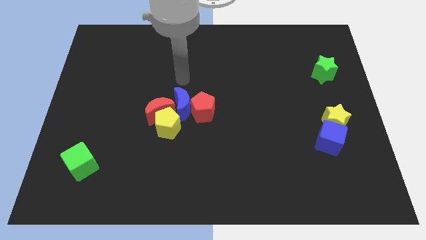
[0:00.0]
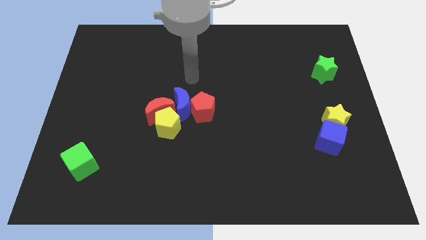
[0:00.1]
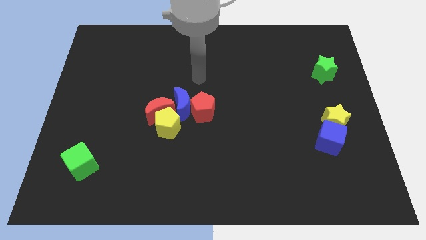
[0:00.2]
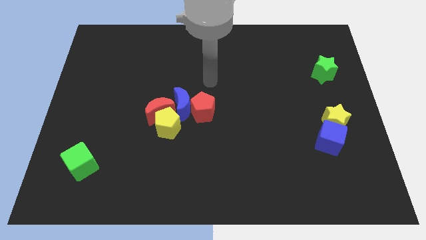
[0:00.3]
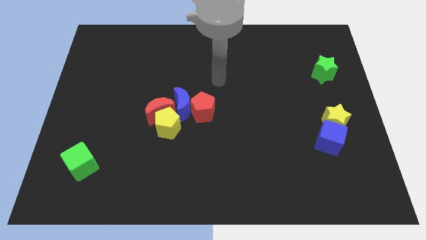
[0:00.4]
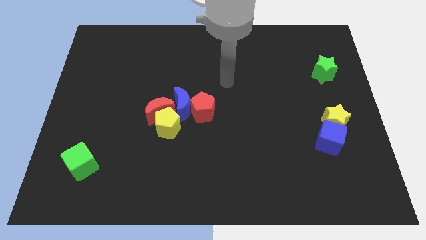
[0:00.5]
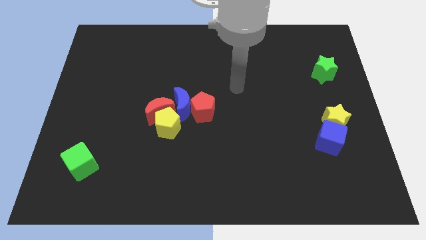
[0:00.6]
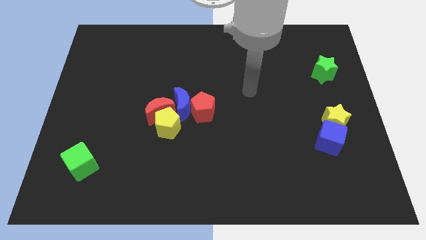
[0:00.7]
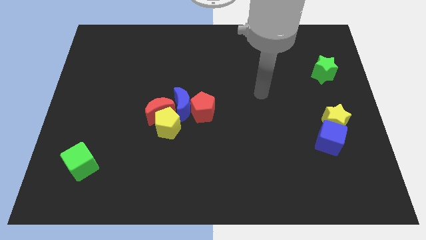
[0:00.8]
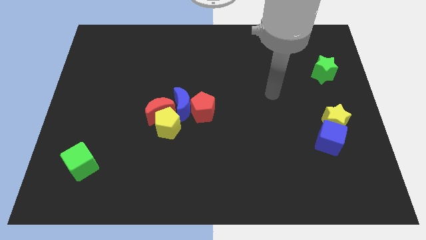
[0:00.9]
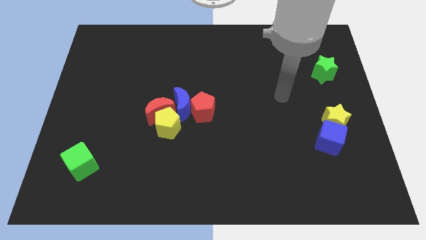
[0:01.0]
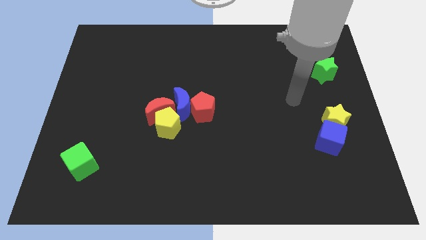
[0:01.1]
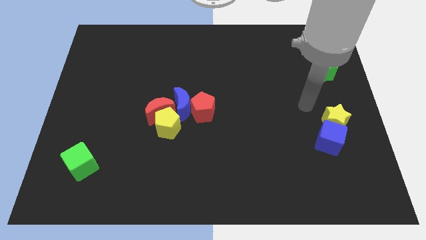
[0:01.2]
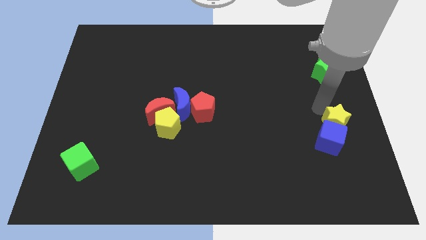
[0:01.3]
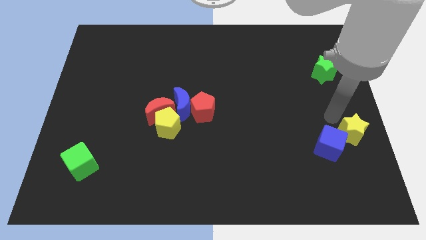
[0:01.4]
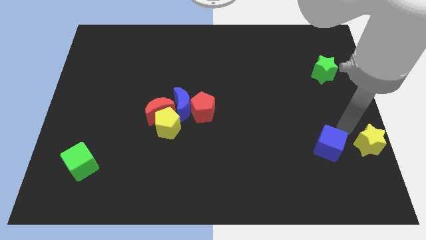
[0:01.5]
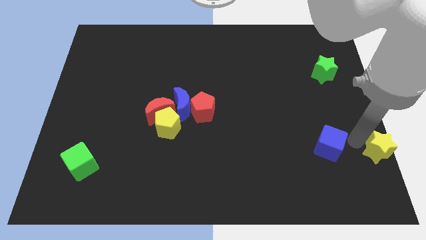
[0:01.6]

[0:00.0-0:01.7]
pull the blue cube apart from the yellow star

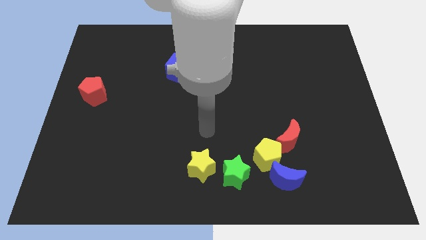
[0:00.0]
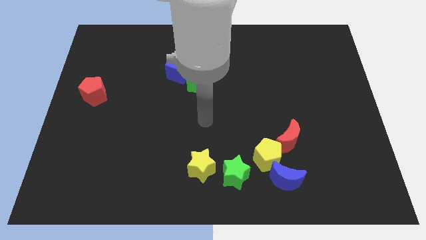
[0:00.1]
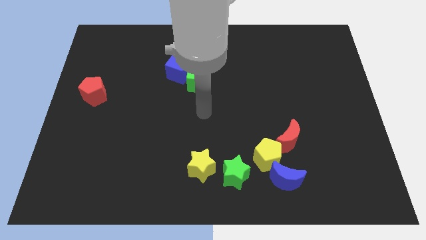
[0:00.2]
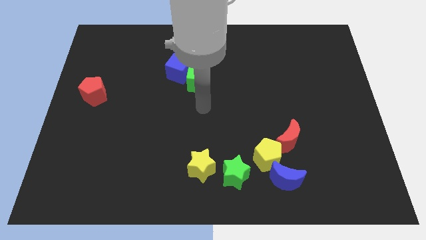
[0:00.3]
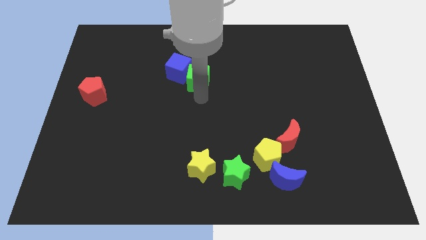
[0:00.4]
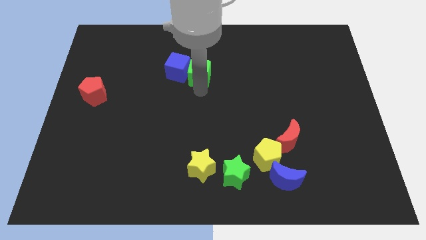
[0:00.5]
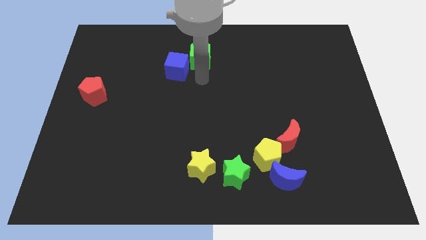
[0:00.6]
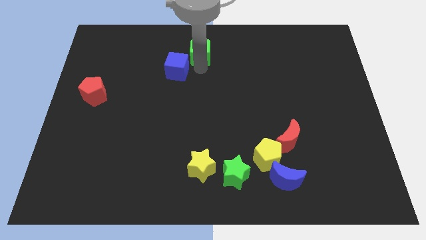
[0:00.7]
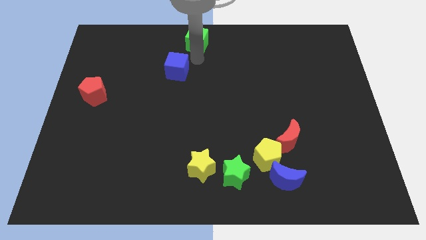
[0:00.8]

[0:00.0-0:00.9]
separate the blue cube from the green cube

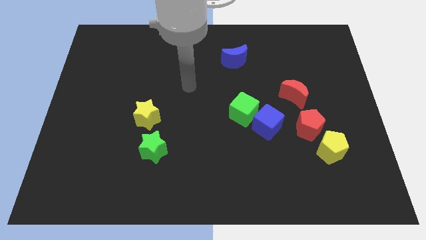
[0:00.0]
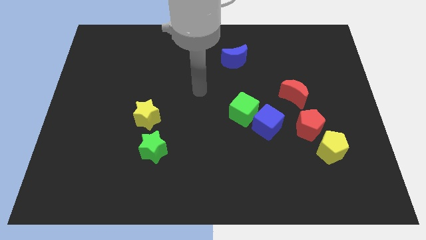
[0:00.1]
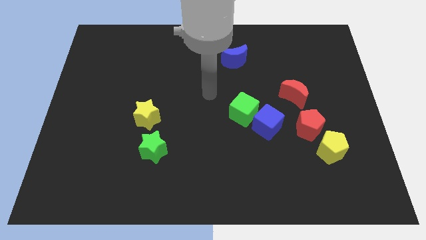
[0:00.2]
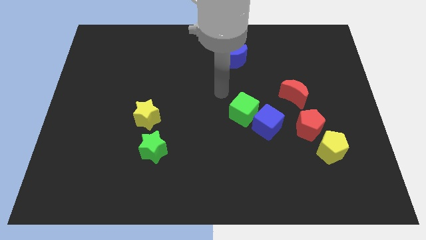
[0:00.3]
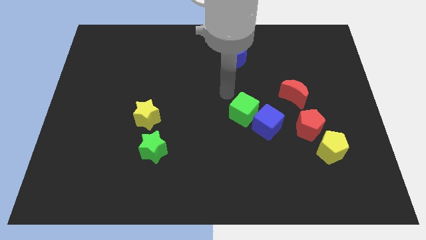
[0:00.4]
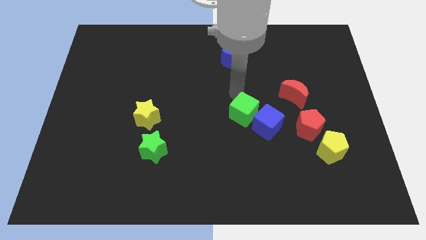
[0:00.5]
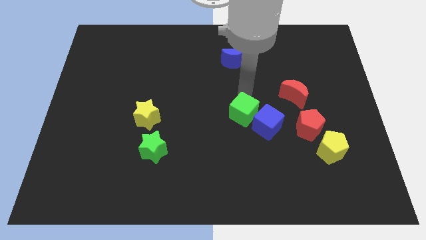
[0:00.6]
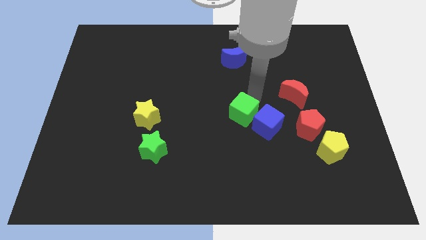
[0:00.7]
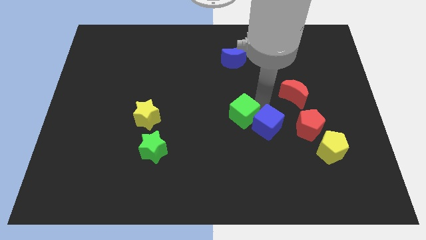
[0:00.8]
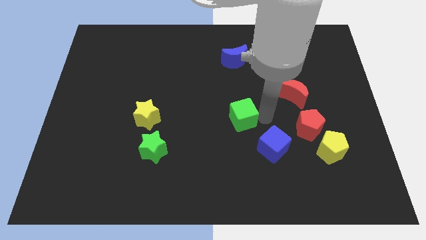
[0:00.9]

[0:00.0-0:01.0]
pull the green cube apart from the blue cube

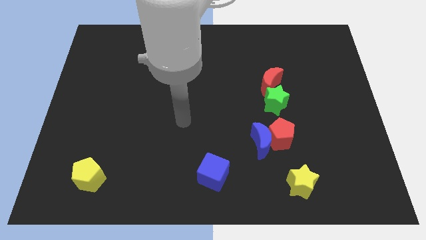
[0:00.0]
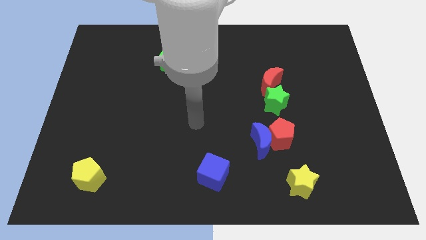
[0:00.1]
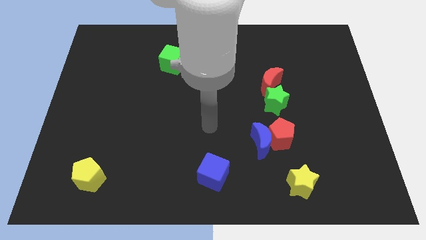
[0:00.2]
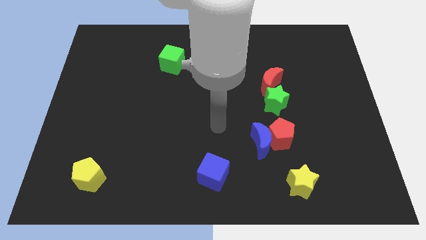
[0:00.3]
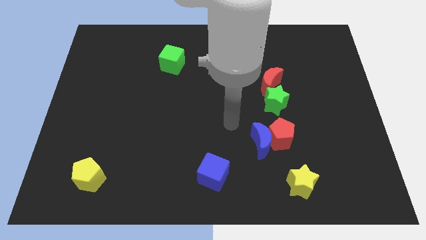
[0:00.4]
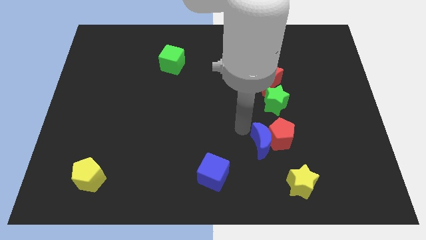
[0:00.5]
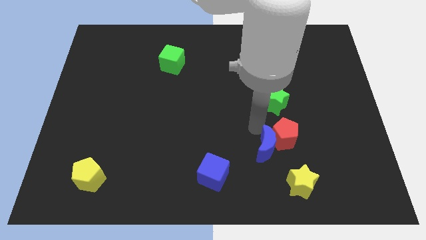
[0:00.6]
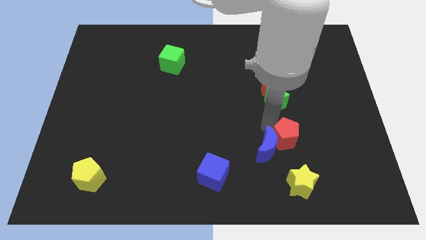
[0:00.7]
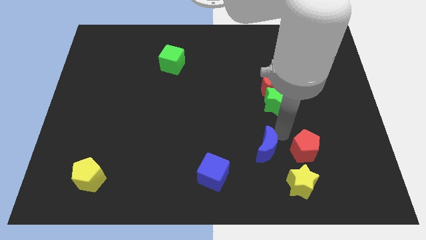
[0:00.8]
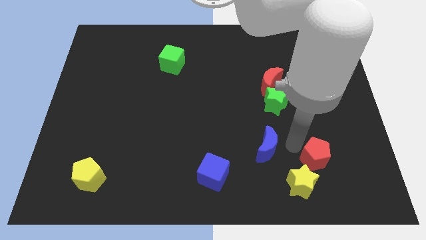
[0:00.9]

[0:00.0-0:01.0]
pull the blue moon apart from the red pentagon

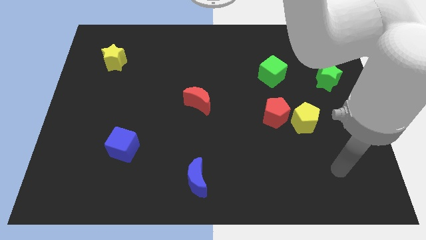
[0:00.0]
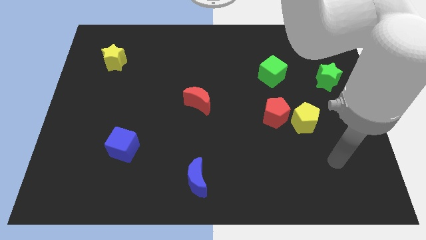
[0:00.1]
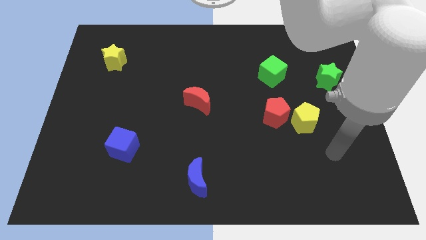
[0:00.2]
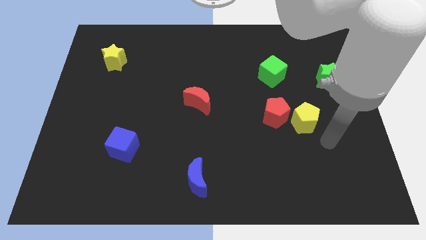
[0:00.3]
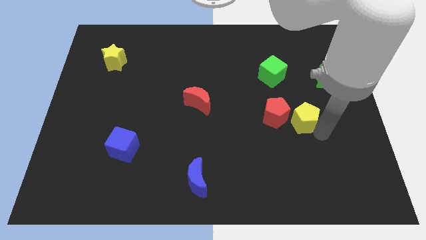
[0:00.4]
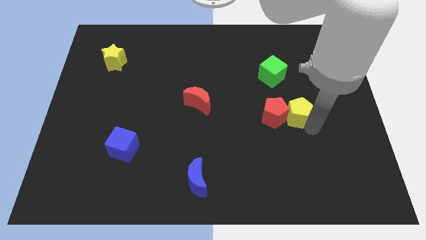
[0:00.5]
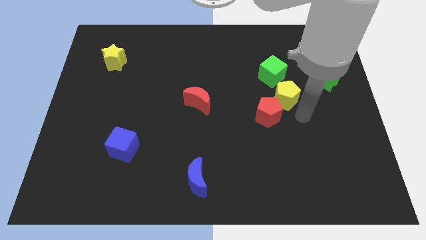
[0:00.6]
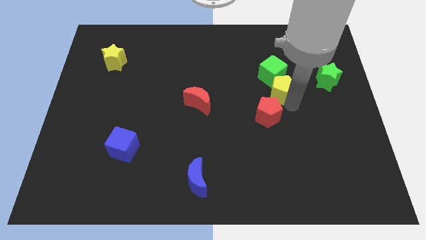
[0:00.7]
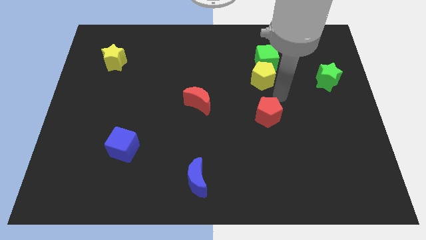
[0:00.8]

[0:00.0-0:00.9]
move the red pentagon away from the yellow pentagon

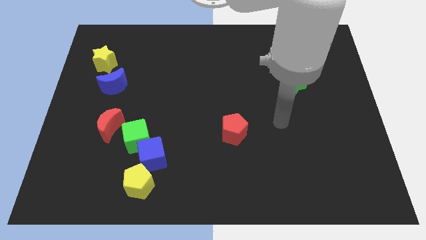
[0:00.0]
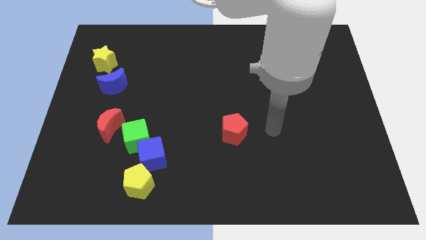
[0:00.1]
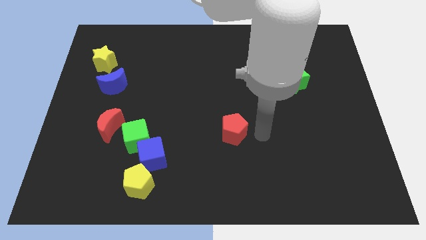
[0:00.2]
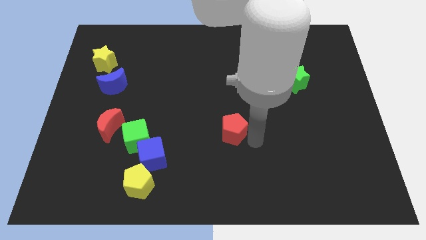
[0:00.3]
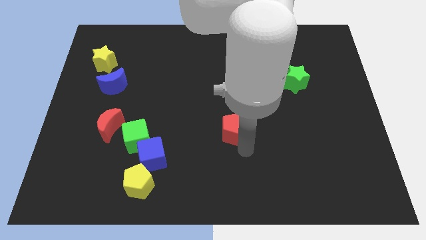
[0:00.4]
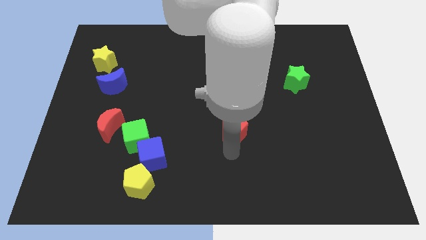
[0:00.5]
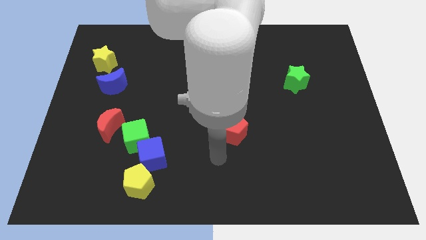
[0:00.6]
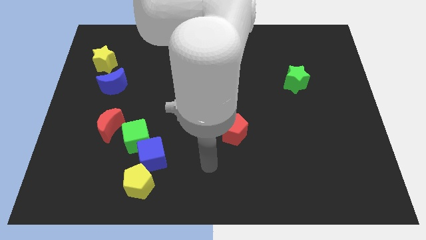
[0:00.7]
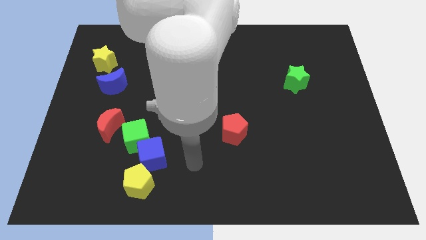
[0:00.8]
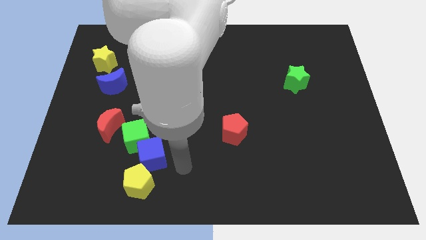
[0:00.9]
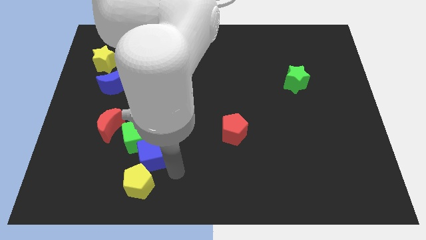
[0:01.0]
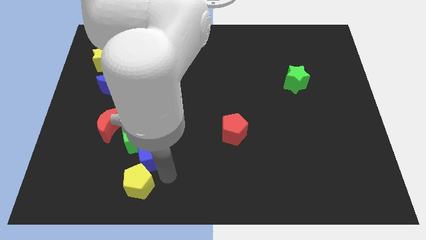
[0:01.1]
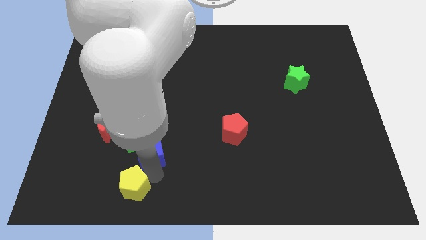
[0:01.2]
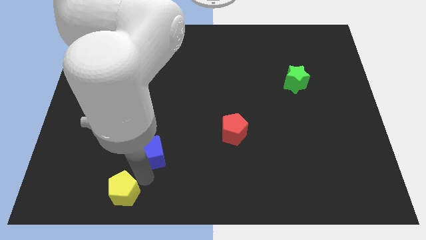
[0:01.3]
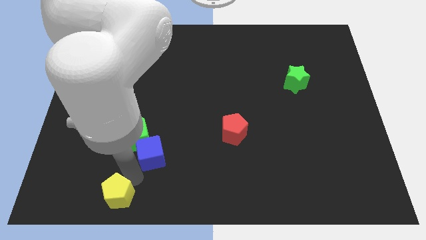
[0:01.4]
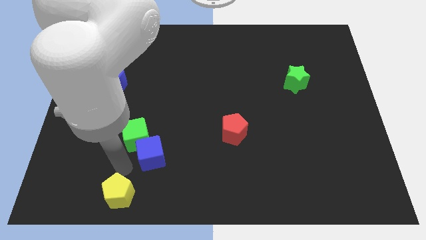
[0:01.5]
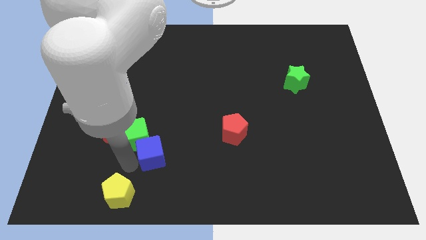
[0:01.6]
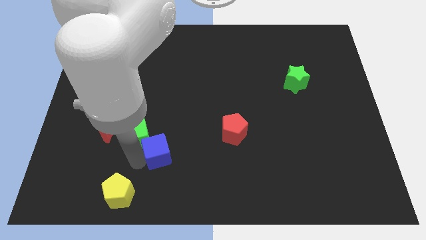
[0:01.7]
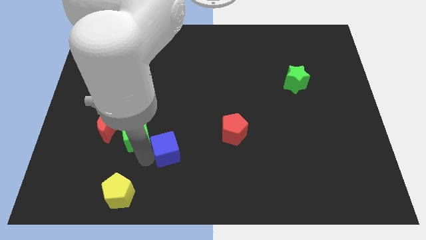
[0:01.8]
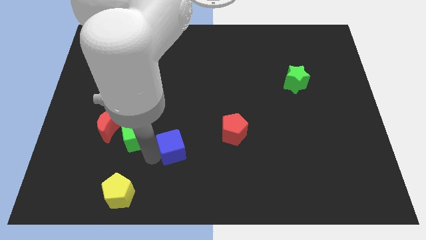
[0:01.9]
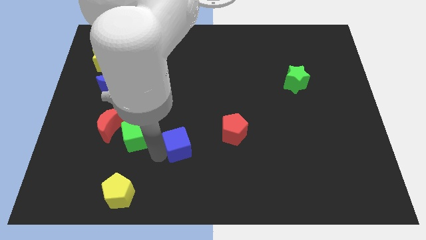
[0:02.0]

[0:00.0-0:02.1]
move the blue cube away from the green cube and yellow pentagon

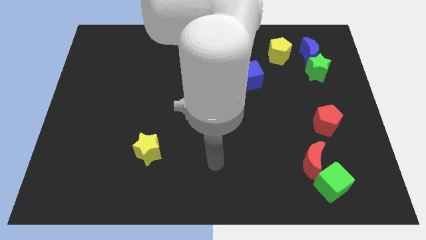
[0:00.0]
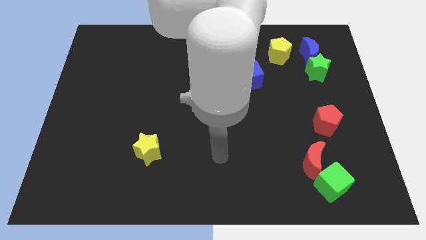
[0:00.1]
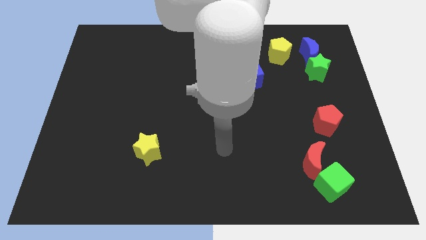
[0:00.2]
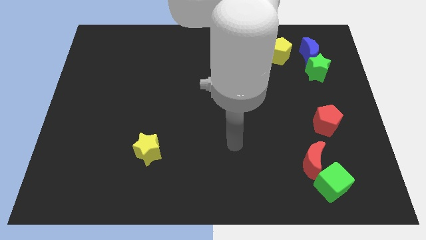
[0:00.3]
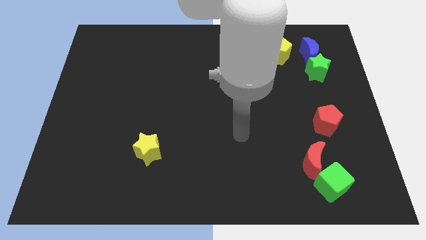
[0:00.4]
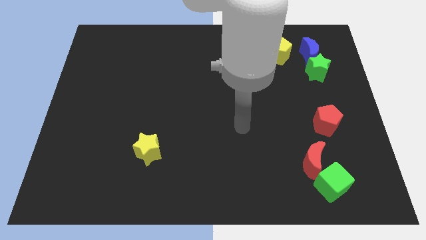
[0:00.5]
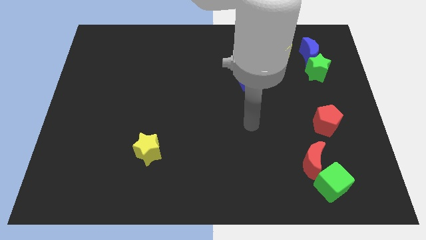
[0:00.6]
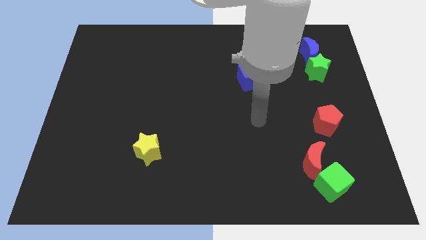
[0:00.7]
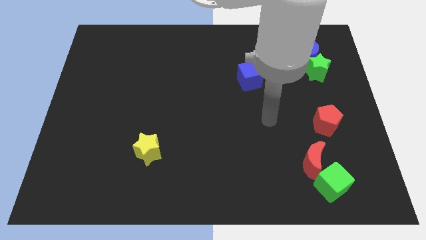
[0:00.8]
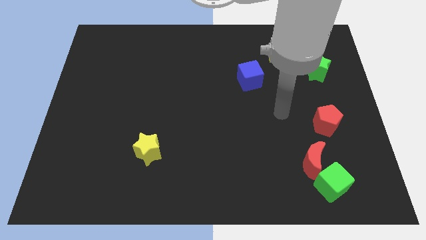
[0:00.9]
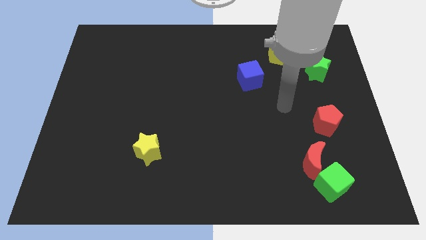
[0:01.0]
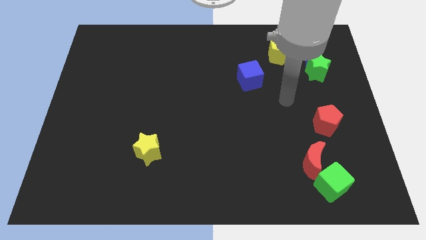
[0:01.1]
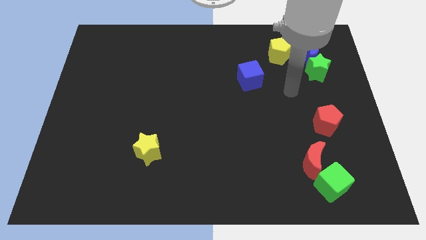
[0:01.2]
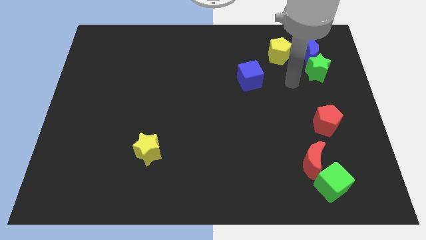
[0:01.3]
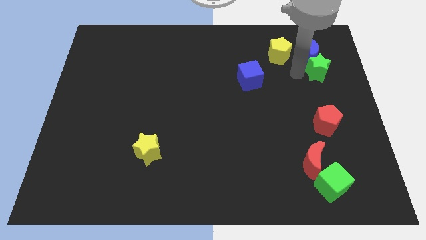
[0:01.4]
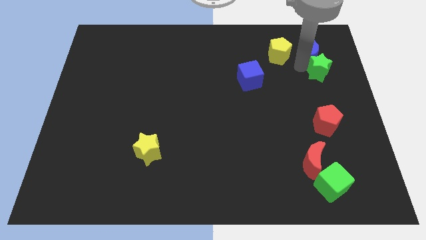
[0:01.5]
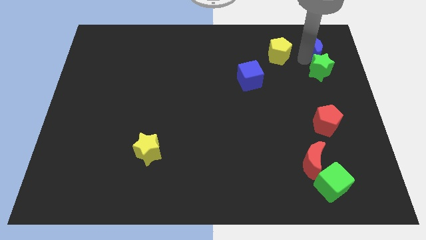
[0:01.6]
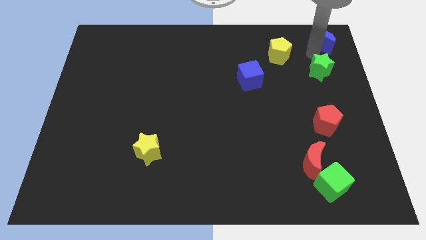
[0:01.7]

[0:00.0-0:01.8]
move the green star away from the blue moon
